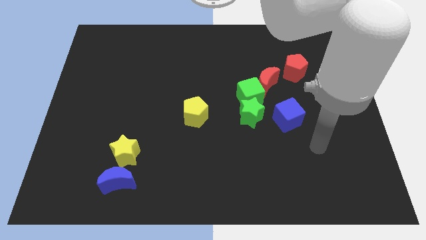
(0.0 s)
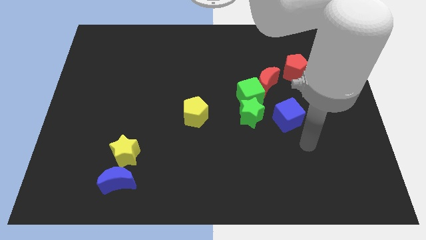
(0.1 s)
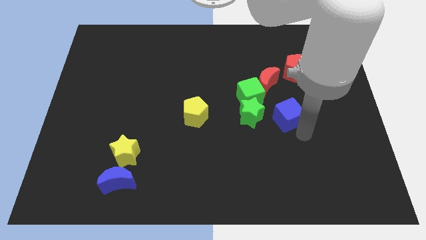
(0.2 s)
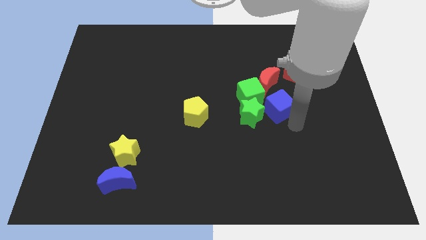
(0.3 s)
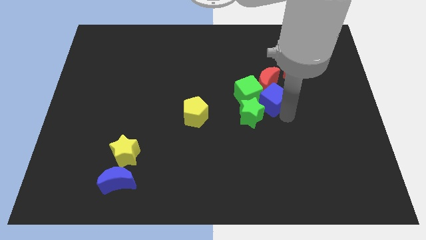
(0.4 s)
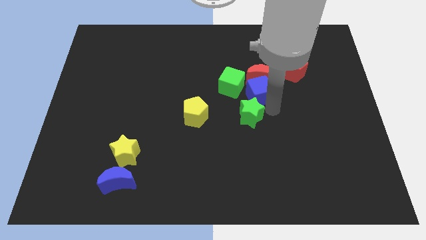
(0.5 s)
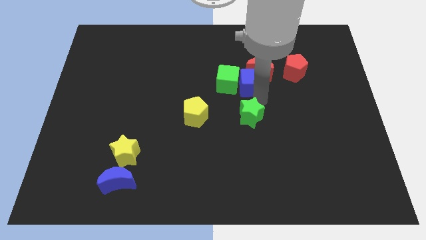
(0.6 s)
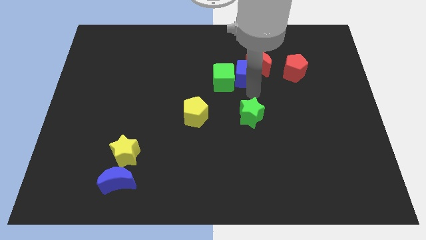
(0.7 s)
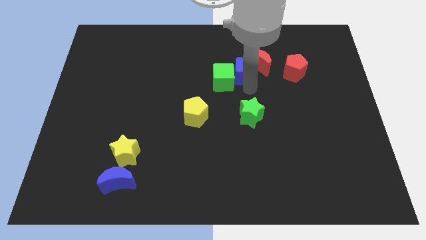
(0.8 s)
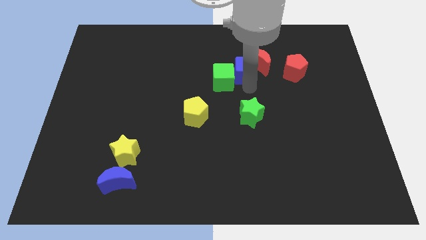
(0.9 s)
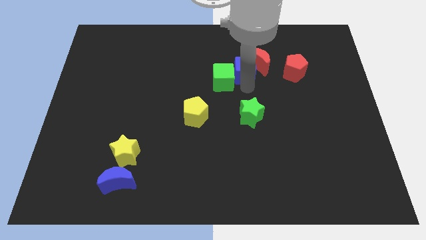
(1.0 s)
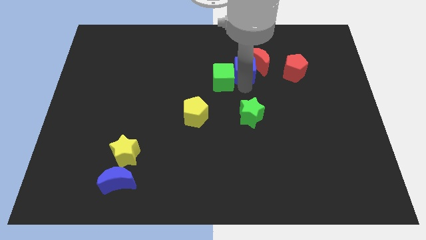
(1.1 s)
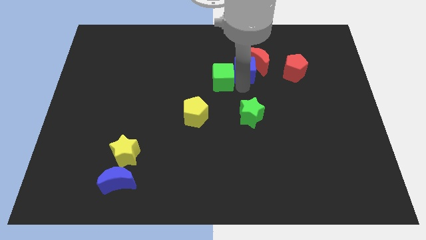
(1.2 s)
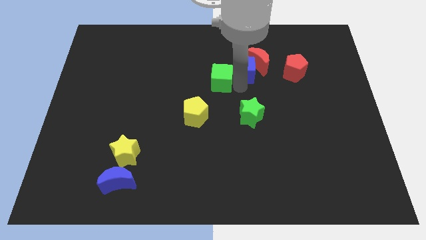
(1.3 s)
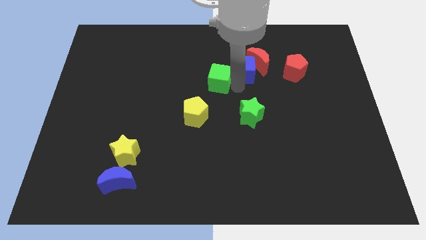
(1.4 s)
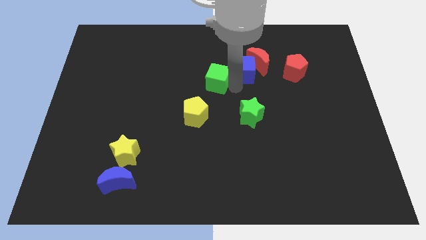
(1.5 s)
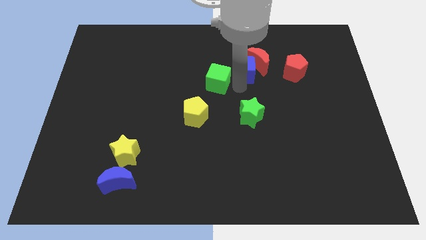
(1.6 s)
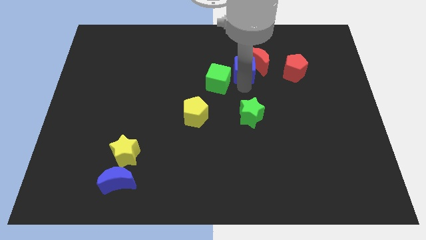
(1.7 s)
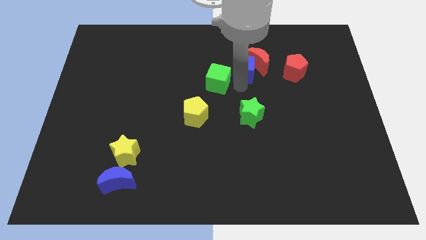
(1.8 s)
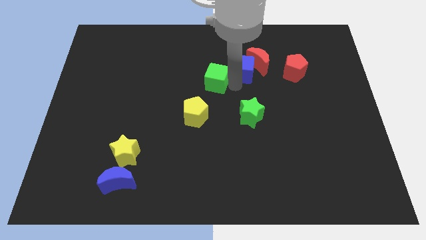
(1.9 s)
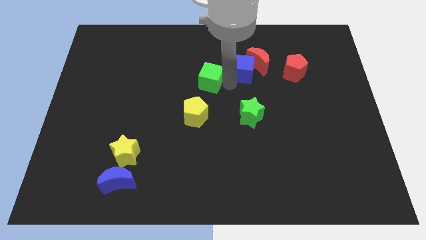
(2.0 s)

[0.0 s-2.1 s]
separate the green cube from the red moon and green star

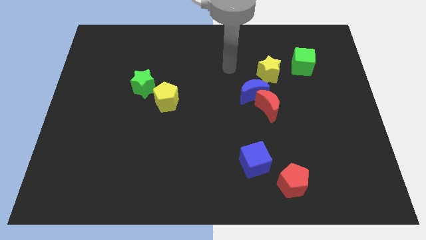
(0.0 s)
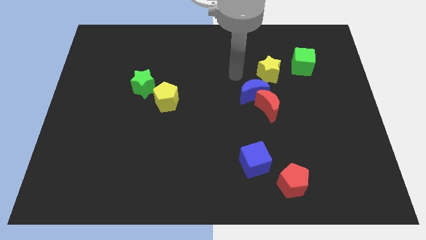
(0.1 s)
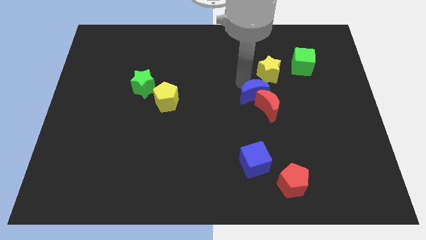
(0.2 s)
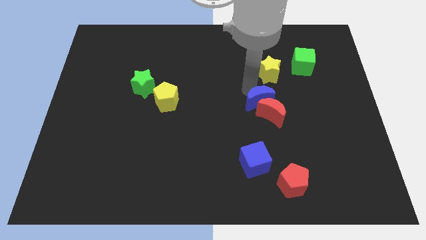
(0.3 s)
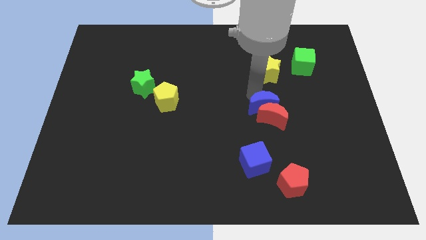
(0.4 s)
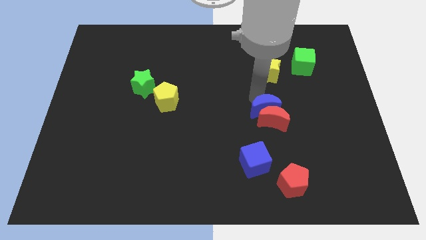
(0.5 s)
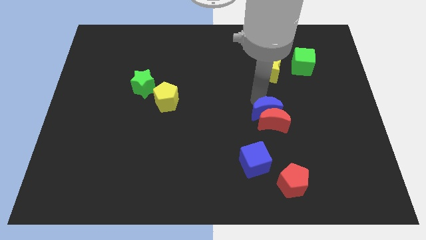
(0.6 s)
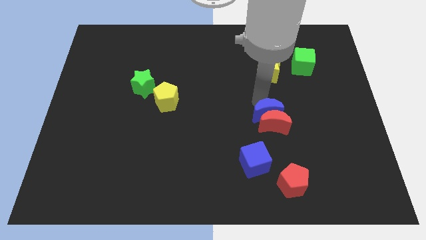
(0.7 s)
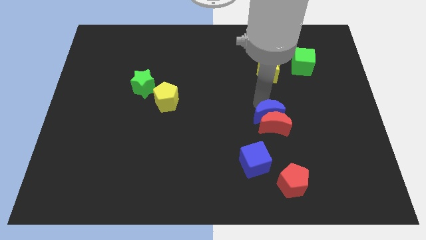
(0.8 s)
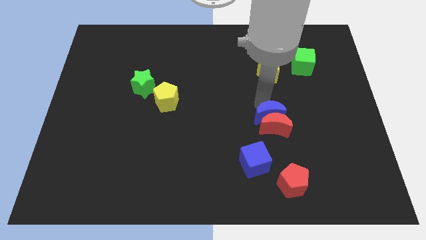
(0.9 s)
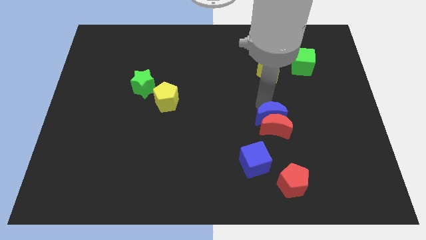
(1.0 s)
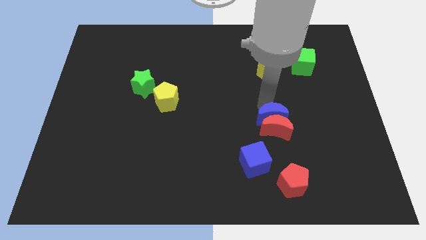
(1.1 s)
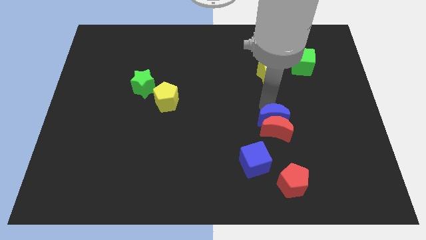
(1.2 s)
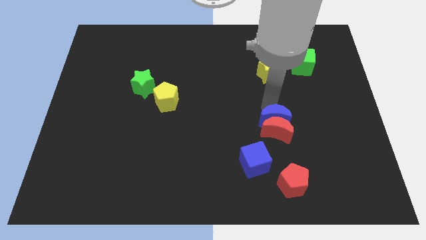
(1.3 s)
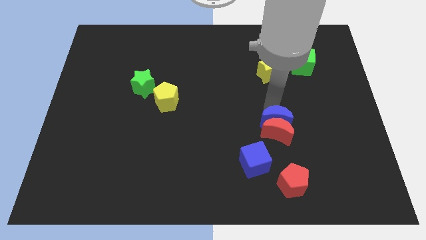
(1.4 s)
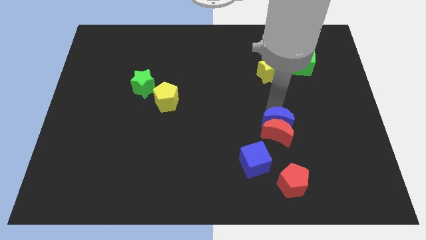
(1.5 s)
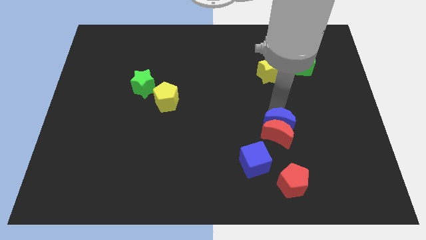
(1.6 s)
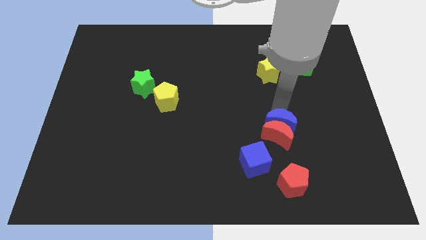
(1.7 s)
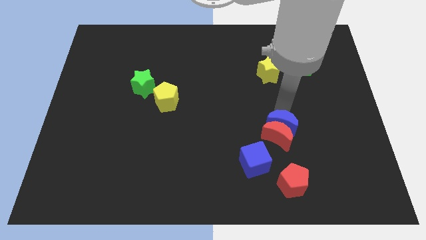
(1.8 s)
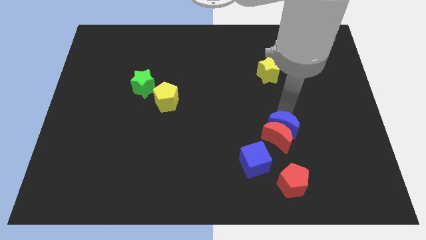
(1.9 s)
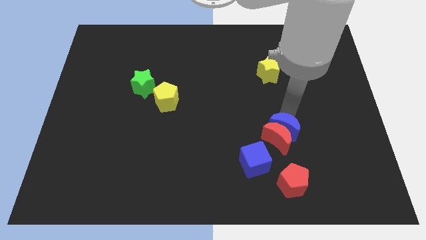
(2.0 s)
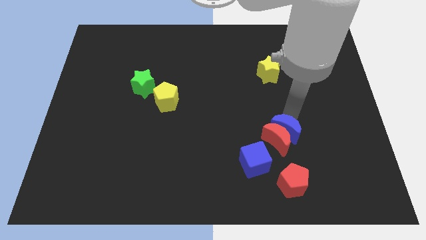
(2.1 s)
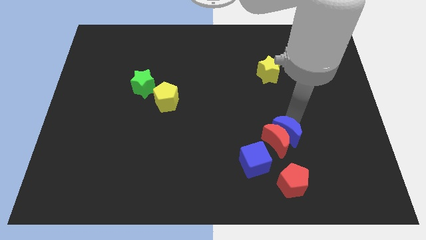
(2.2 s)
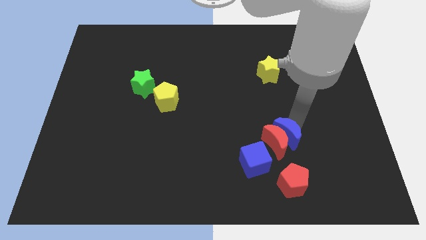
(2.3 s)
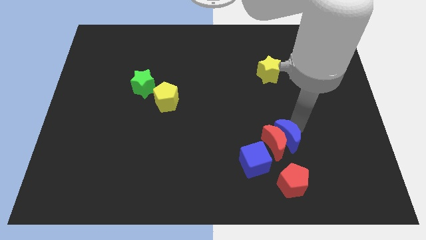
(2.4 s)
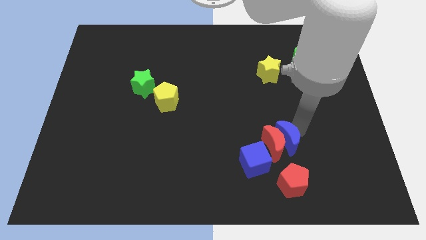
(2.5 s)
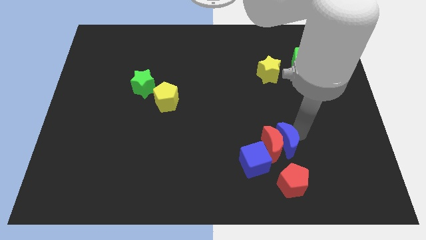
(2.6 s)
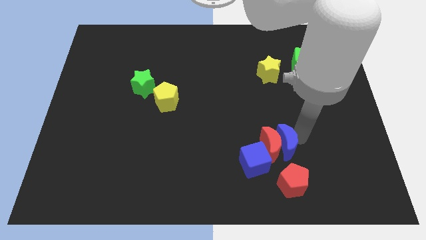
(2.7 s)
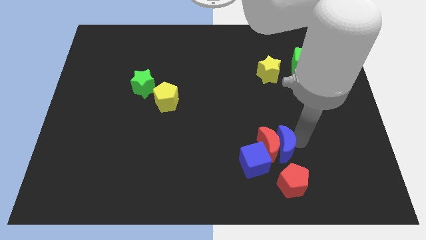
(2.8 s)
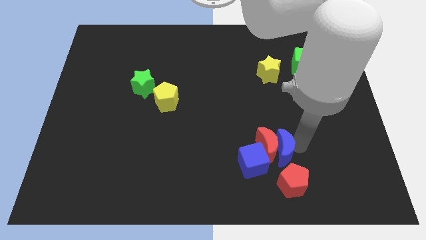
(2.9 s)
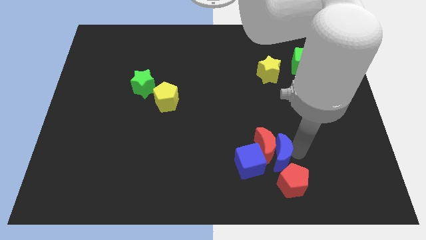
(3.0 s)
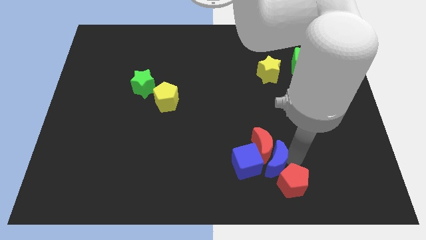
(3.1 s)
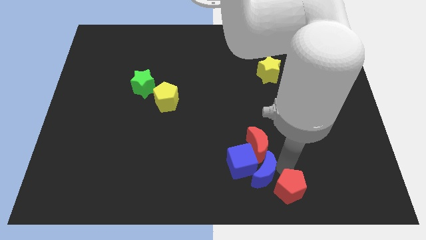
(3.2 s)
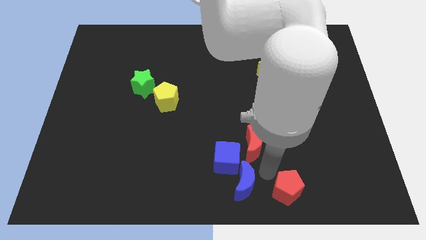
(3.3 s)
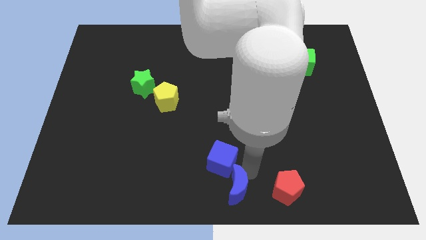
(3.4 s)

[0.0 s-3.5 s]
pull the red moon apart from the blue moon

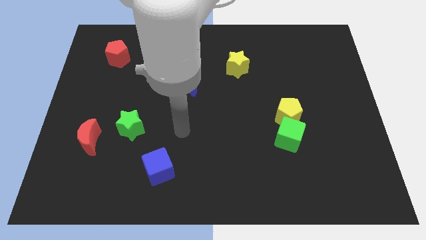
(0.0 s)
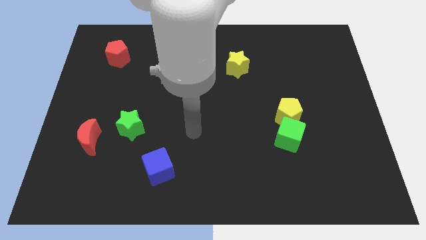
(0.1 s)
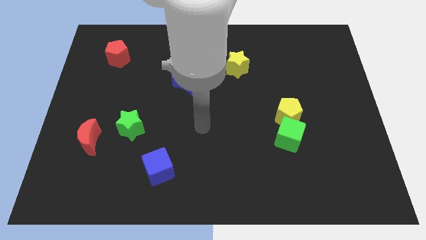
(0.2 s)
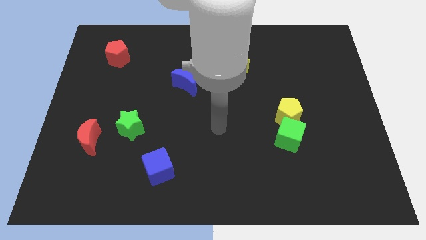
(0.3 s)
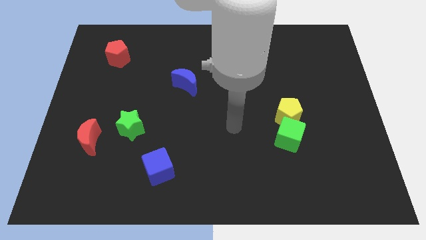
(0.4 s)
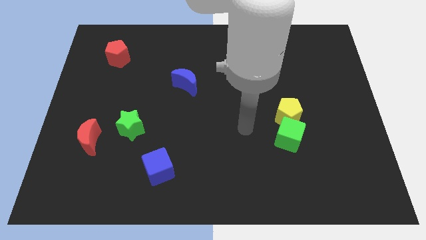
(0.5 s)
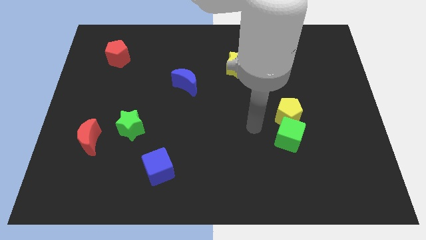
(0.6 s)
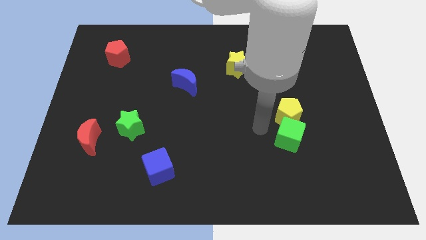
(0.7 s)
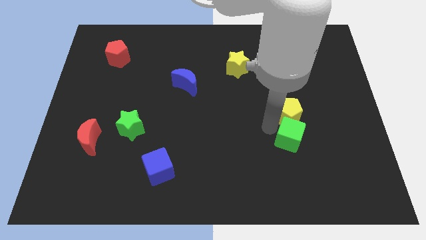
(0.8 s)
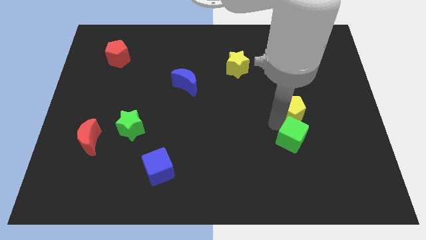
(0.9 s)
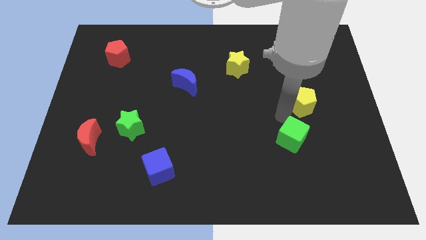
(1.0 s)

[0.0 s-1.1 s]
pull the green cube apart from the yellow pentagon

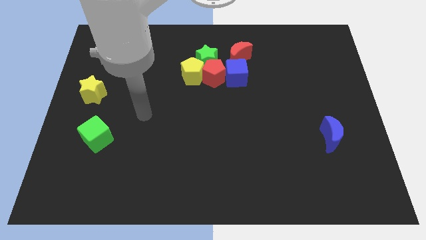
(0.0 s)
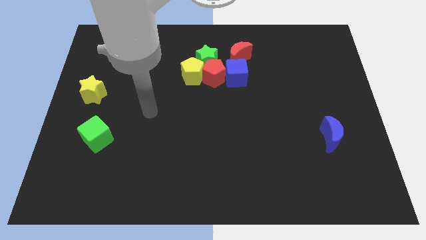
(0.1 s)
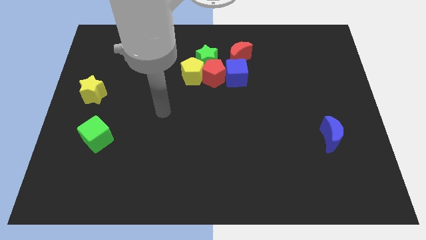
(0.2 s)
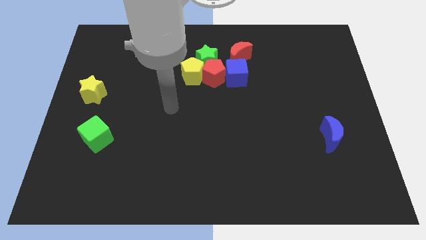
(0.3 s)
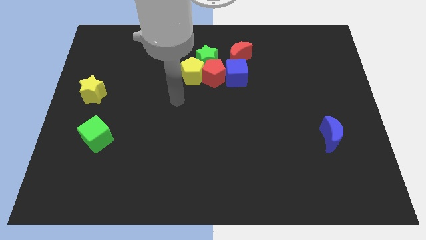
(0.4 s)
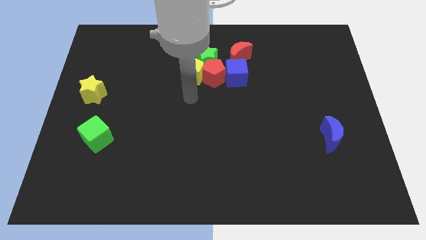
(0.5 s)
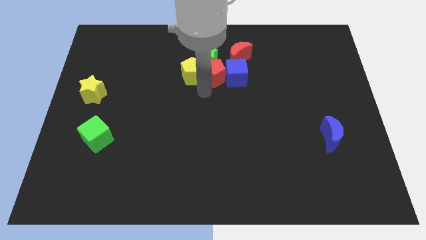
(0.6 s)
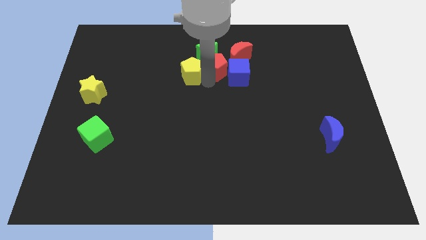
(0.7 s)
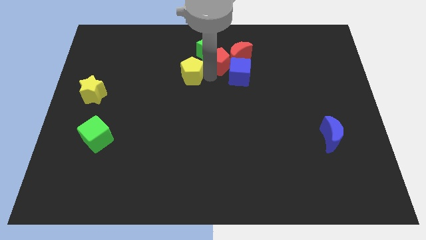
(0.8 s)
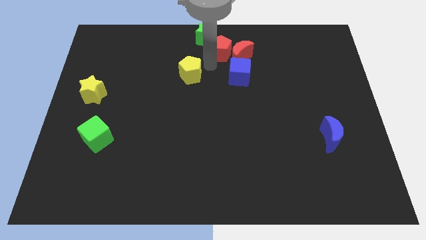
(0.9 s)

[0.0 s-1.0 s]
move the yellow pentagon away from the red pentagon and green star

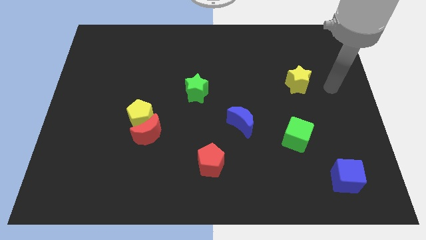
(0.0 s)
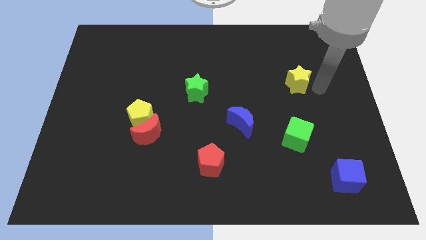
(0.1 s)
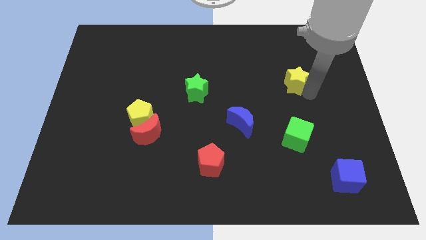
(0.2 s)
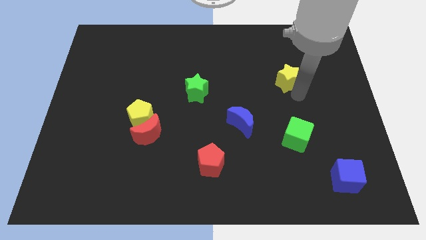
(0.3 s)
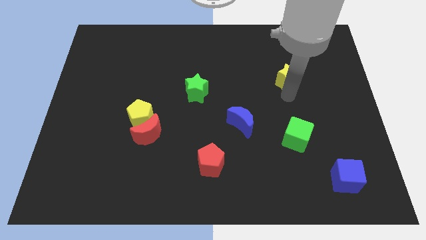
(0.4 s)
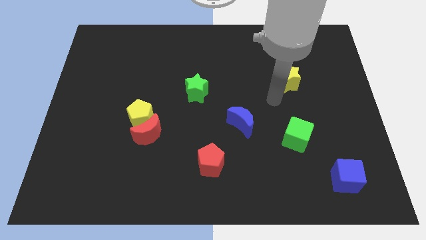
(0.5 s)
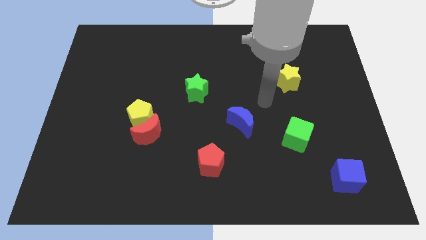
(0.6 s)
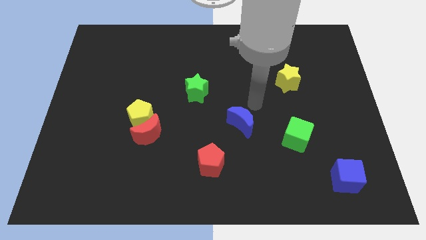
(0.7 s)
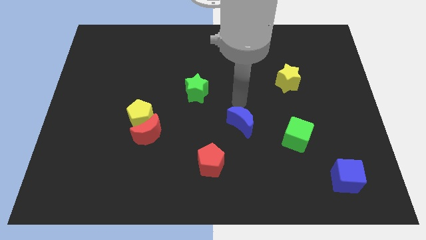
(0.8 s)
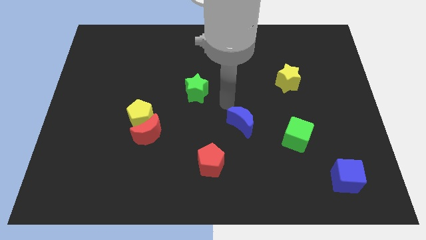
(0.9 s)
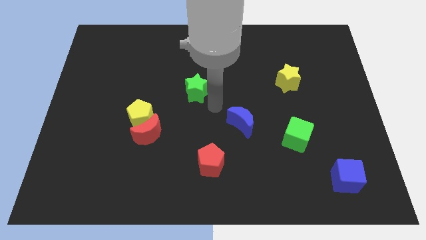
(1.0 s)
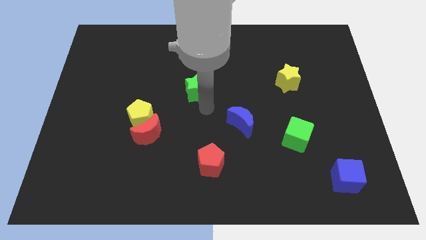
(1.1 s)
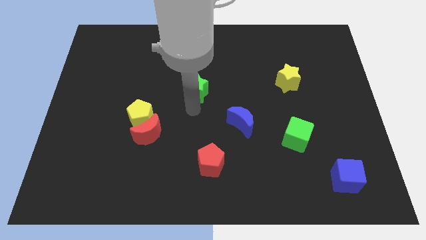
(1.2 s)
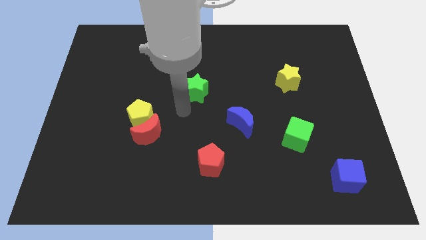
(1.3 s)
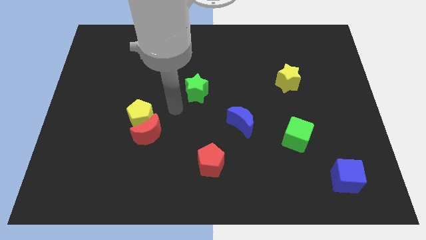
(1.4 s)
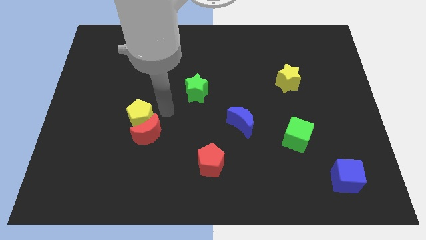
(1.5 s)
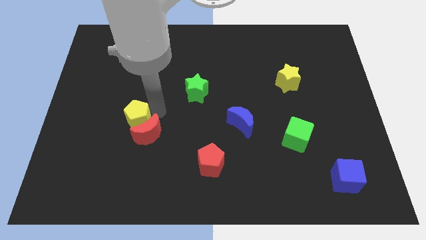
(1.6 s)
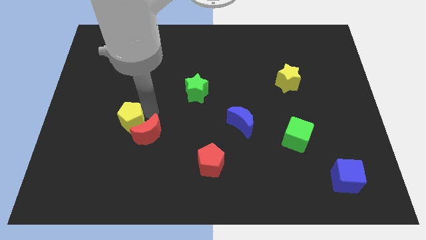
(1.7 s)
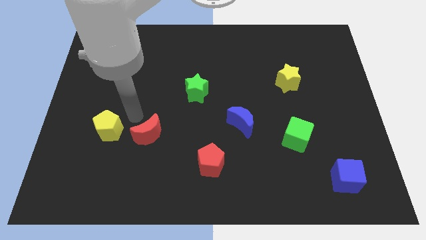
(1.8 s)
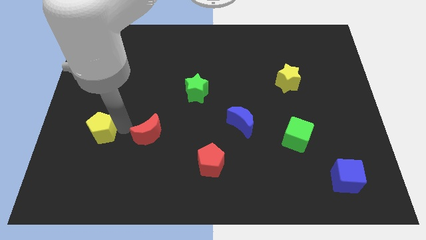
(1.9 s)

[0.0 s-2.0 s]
pull the red moon apart from the yellow pentagon
